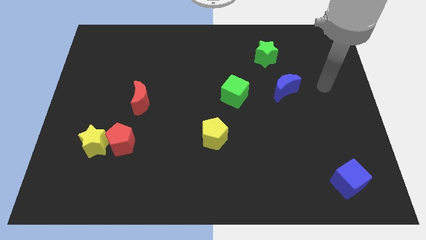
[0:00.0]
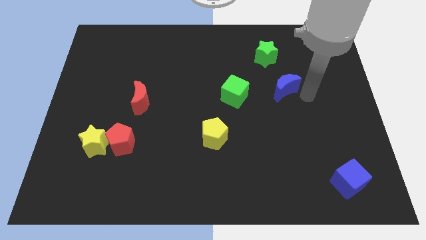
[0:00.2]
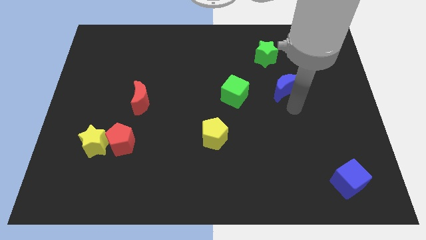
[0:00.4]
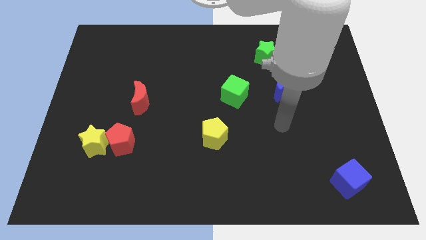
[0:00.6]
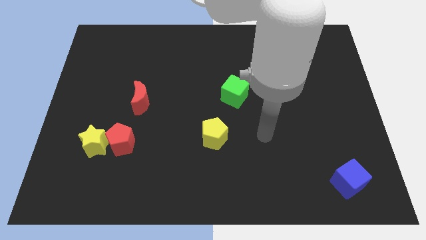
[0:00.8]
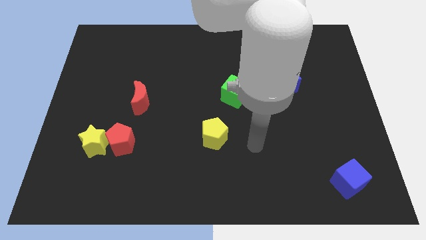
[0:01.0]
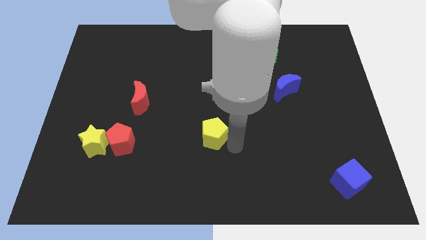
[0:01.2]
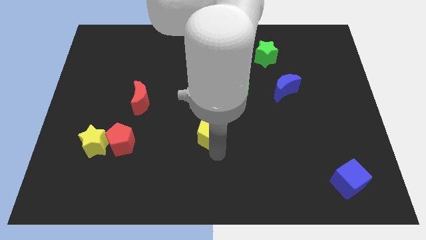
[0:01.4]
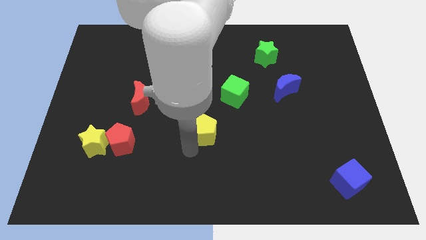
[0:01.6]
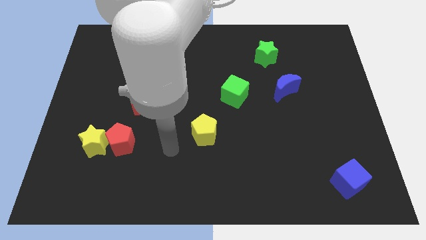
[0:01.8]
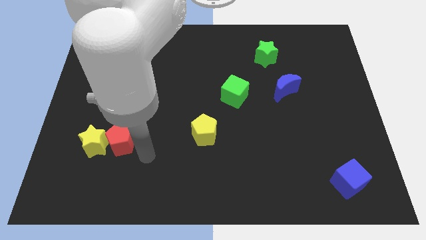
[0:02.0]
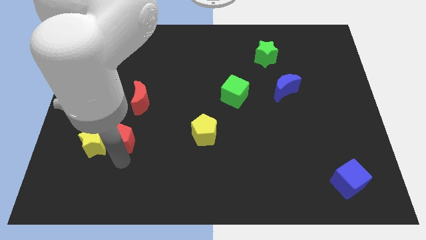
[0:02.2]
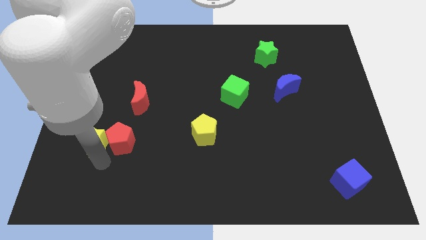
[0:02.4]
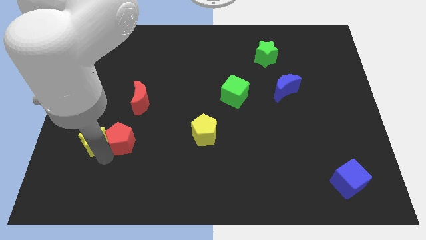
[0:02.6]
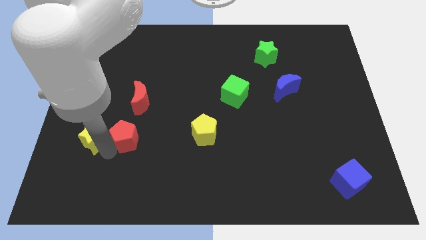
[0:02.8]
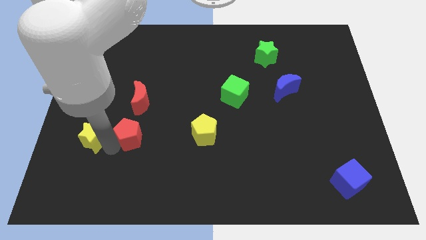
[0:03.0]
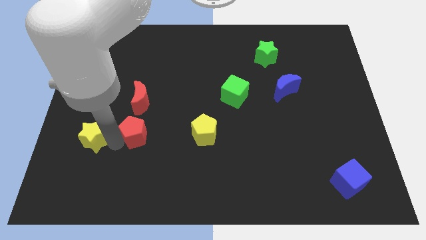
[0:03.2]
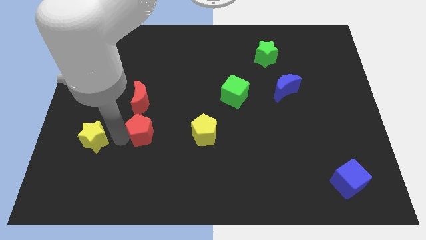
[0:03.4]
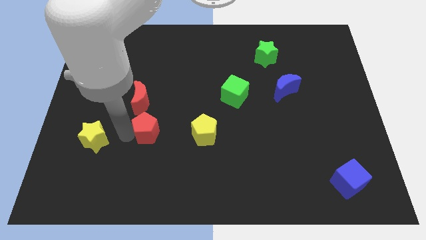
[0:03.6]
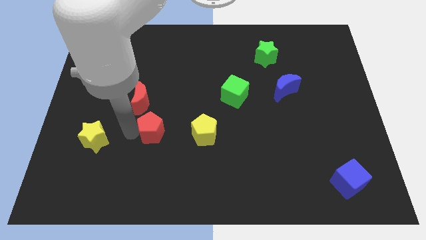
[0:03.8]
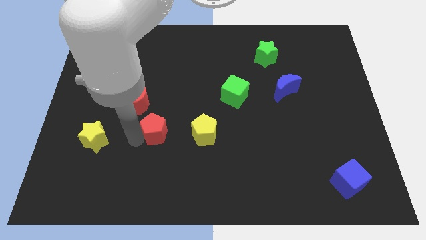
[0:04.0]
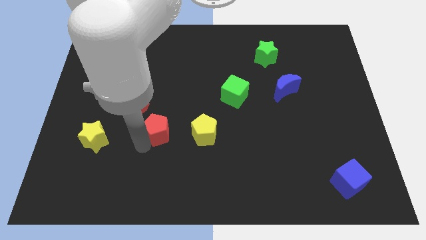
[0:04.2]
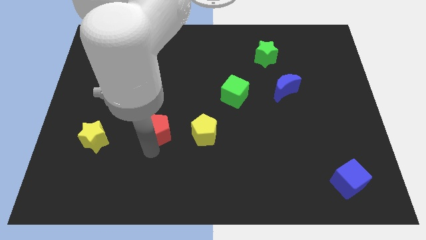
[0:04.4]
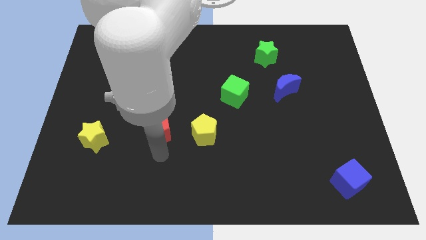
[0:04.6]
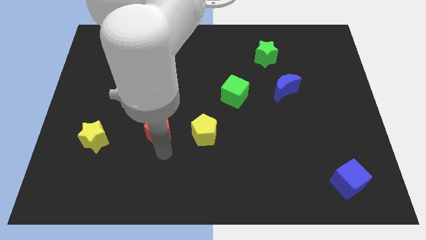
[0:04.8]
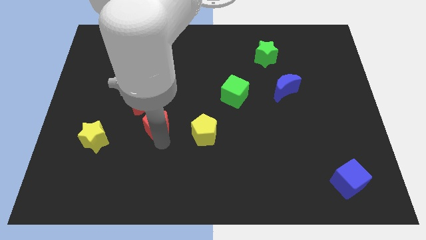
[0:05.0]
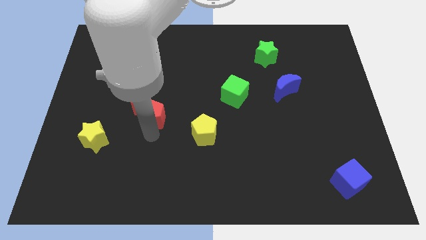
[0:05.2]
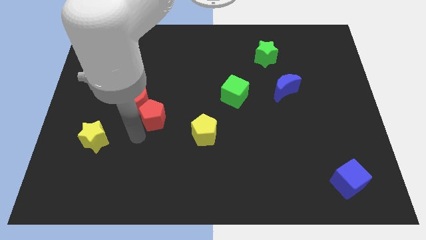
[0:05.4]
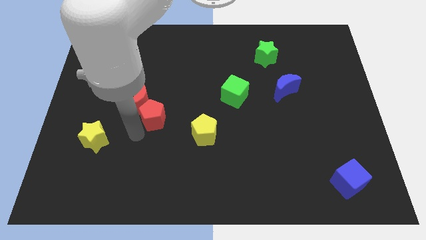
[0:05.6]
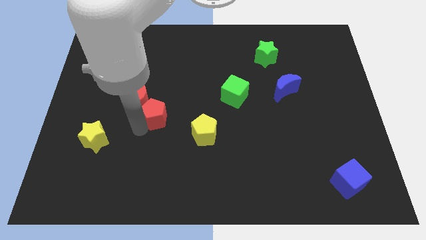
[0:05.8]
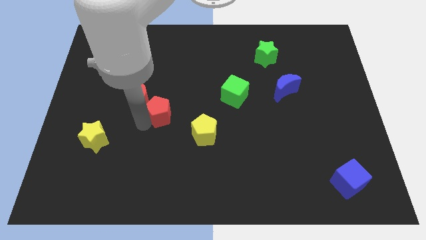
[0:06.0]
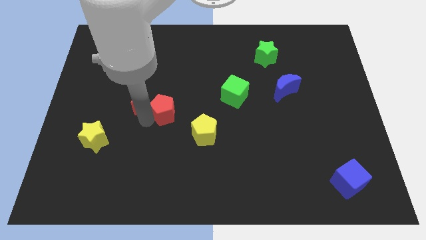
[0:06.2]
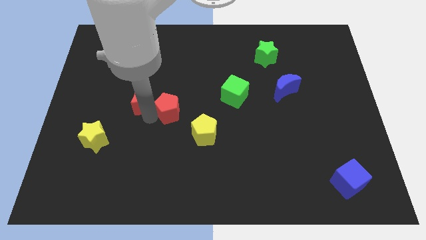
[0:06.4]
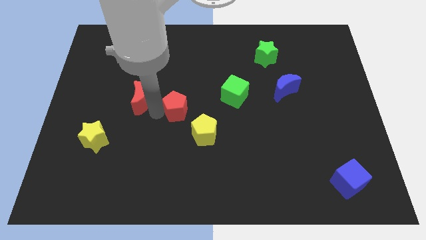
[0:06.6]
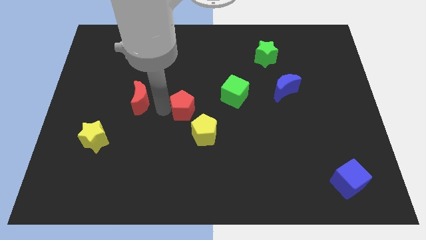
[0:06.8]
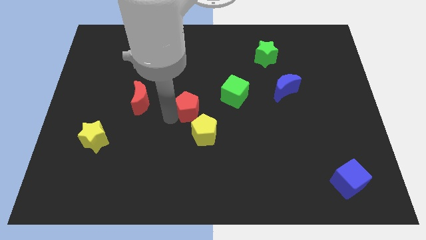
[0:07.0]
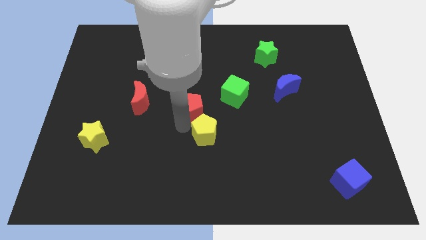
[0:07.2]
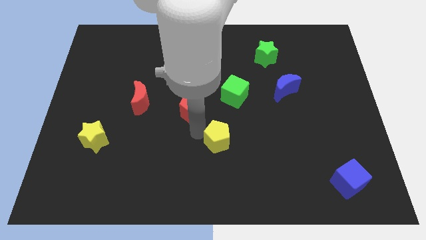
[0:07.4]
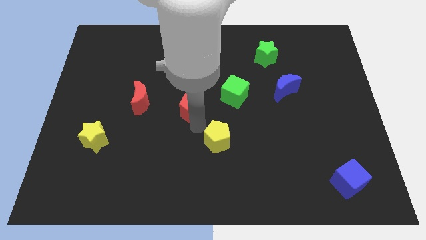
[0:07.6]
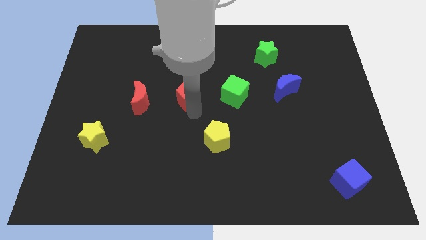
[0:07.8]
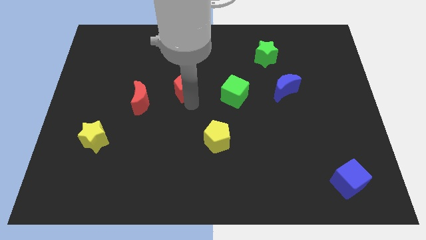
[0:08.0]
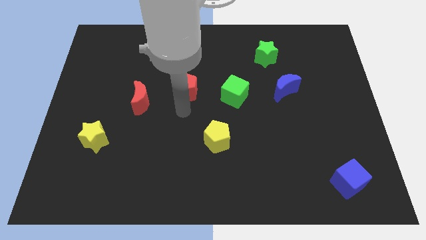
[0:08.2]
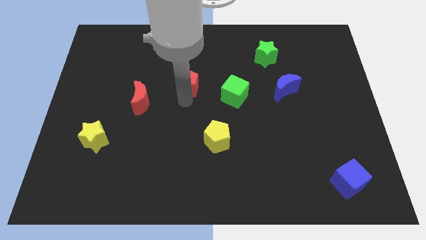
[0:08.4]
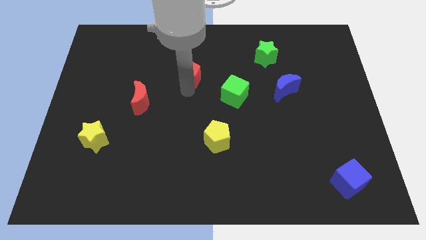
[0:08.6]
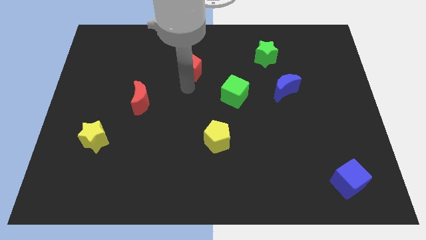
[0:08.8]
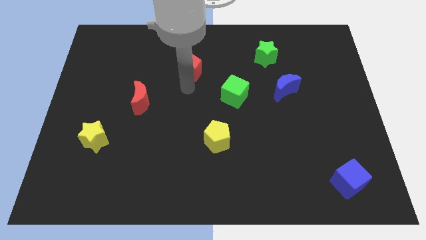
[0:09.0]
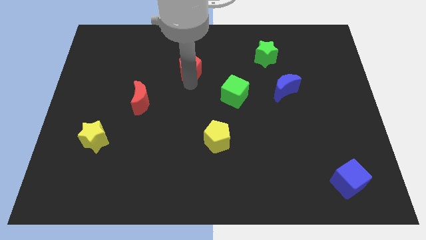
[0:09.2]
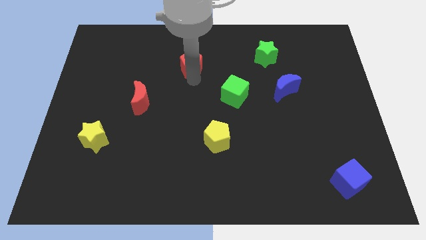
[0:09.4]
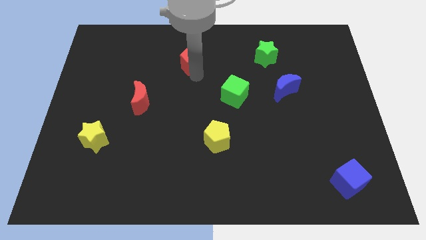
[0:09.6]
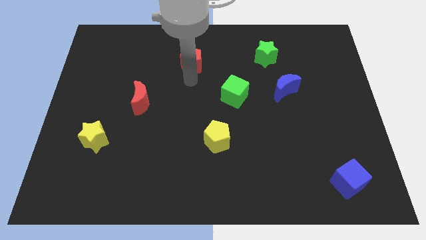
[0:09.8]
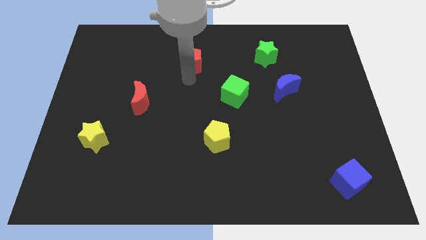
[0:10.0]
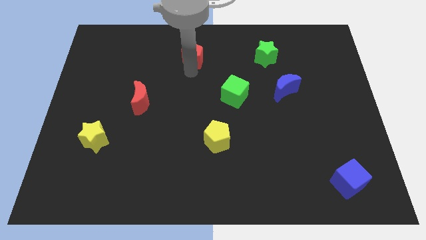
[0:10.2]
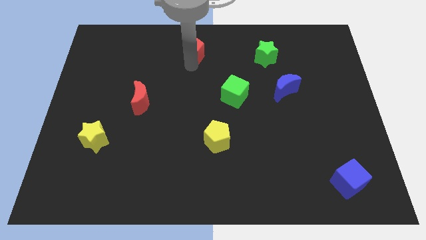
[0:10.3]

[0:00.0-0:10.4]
move the red pentagon to the top
